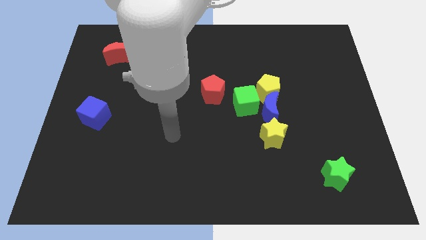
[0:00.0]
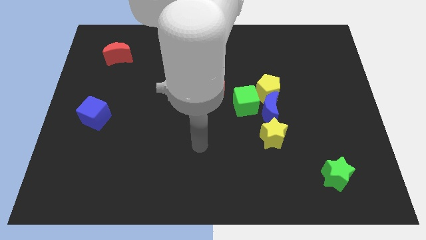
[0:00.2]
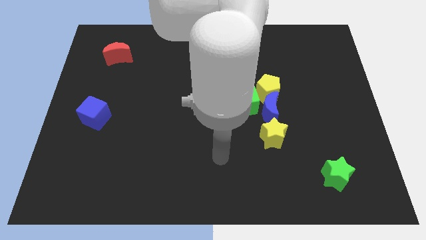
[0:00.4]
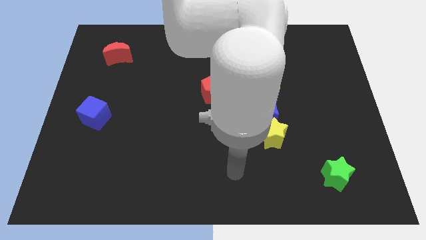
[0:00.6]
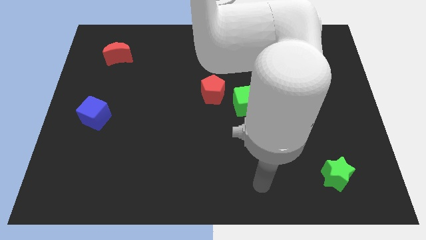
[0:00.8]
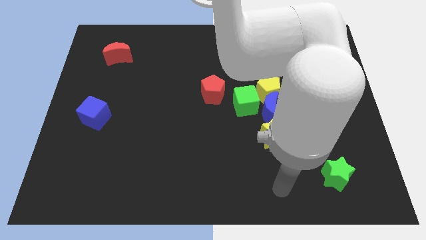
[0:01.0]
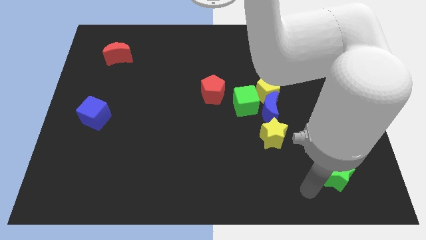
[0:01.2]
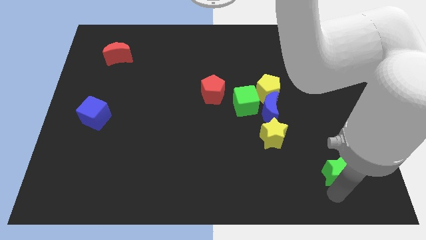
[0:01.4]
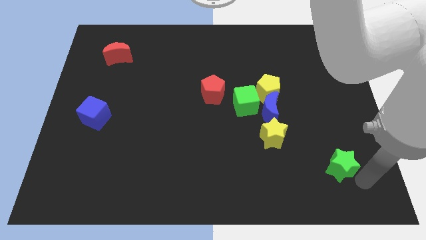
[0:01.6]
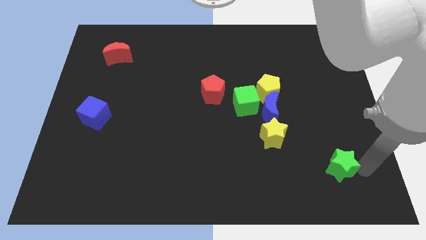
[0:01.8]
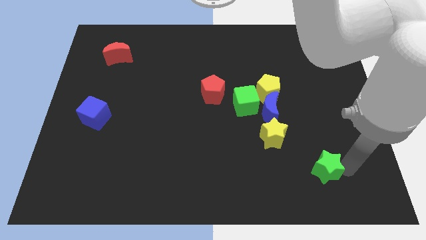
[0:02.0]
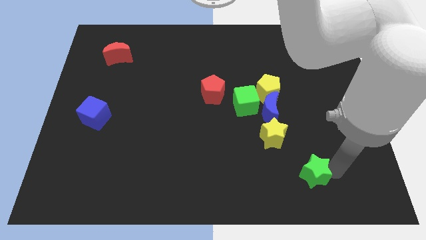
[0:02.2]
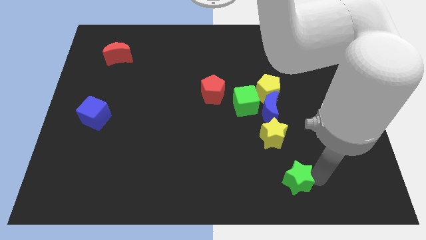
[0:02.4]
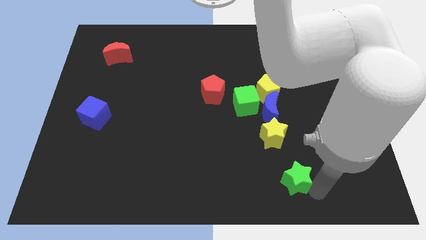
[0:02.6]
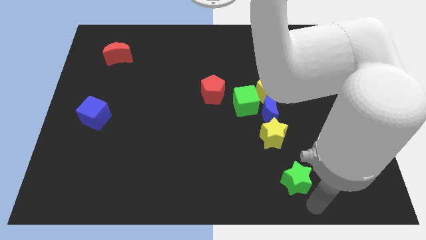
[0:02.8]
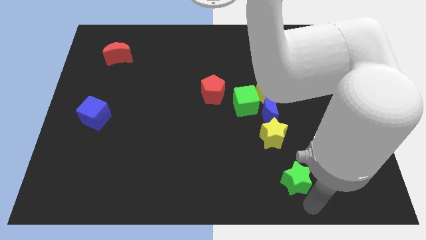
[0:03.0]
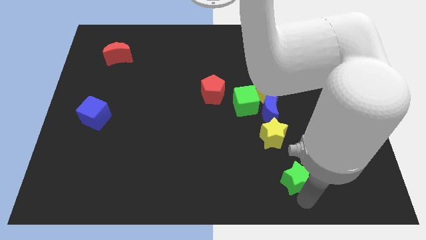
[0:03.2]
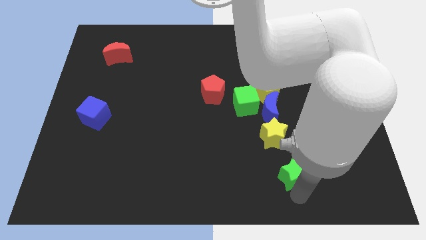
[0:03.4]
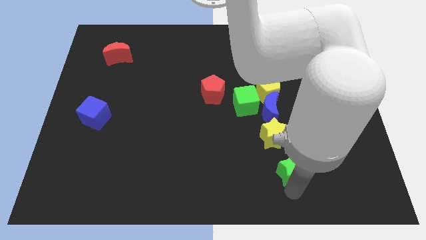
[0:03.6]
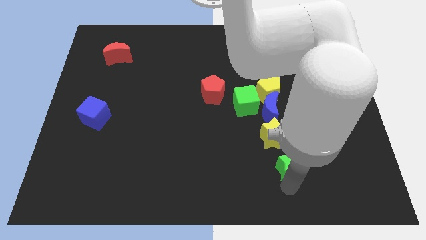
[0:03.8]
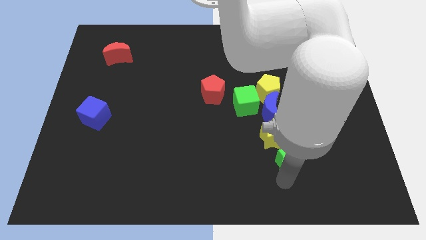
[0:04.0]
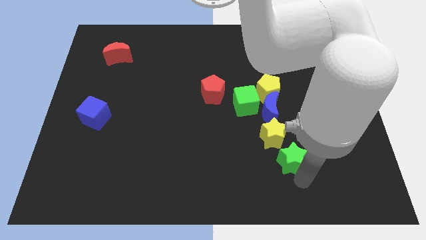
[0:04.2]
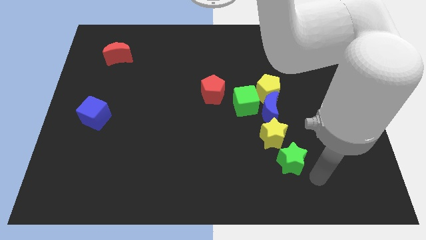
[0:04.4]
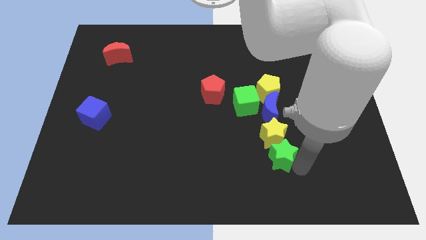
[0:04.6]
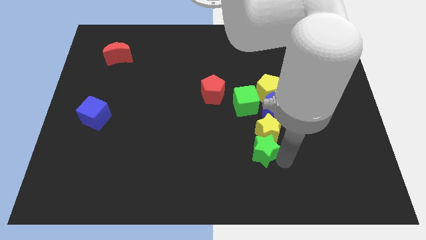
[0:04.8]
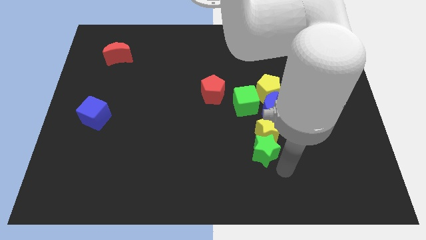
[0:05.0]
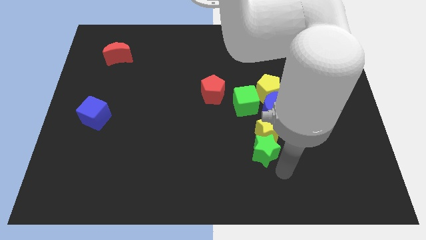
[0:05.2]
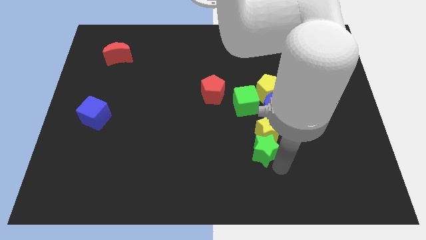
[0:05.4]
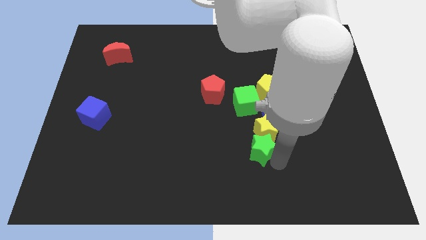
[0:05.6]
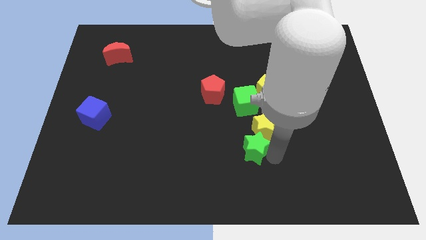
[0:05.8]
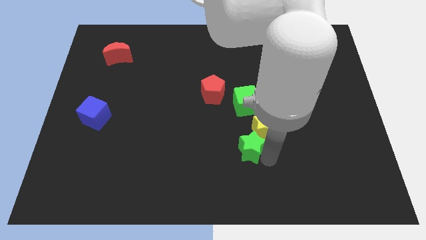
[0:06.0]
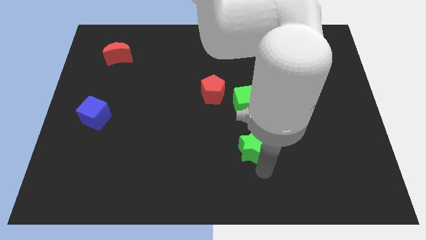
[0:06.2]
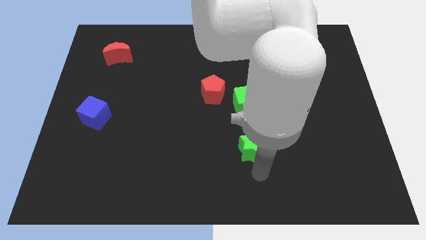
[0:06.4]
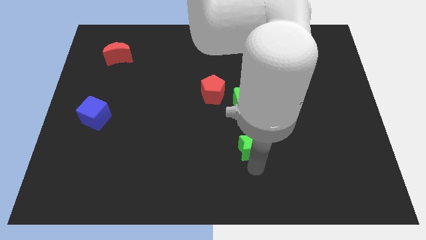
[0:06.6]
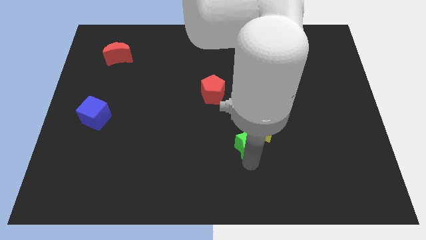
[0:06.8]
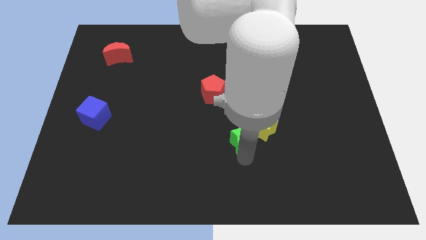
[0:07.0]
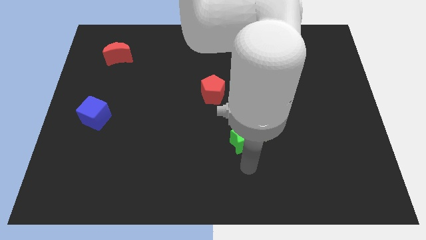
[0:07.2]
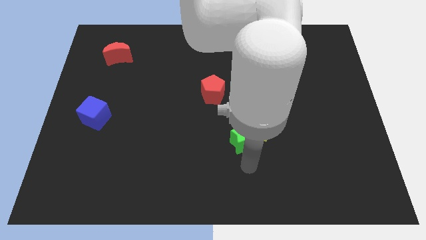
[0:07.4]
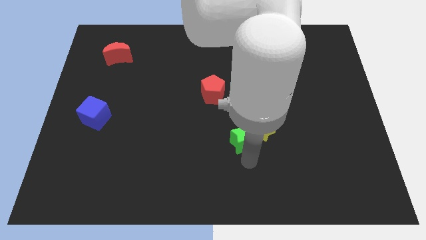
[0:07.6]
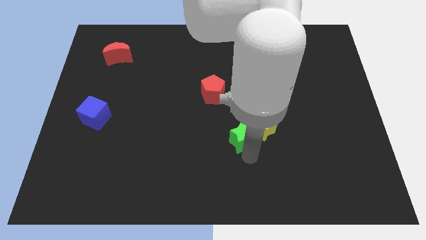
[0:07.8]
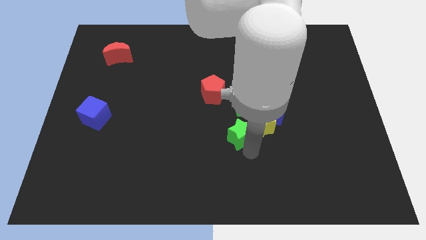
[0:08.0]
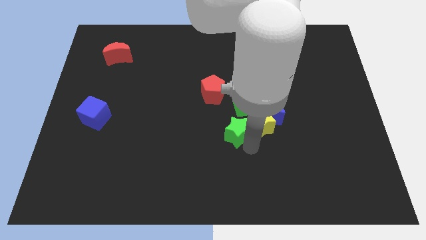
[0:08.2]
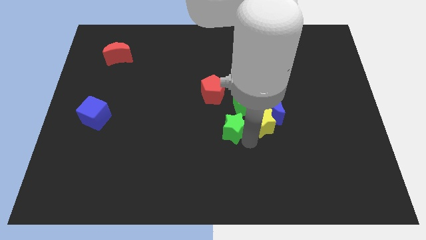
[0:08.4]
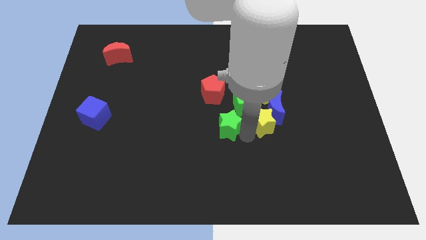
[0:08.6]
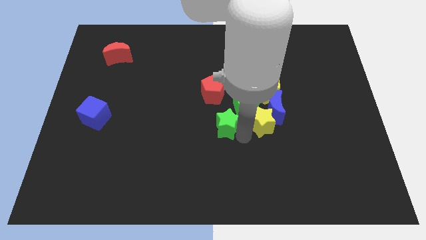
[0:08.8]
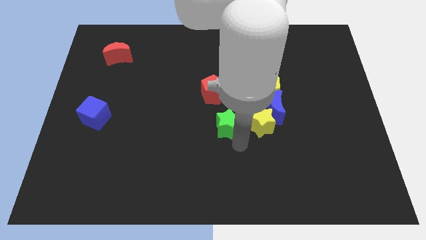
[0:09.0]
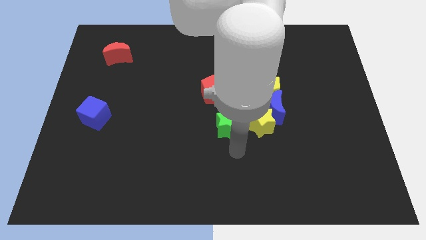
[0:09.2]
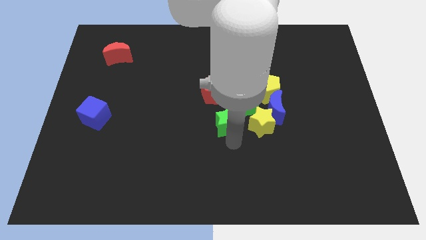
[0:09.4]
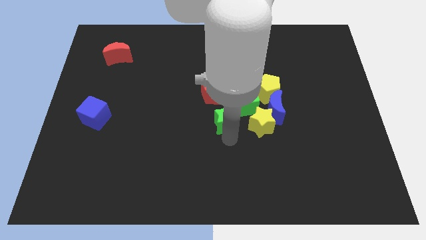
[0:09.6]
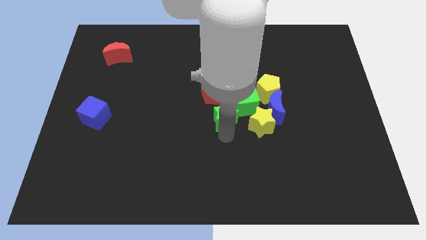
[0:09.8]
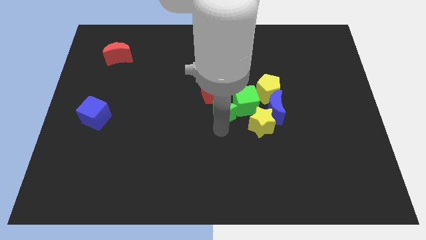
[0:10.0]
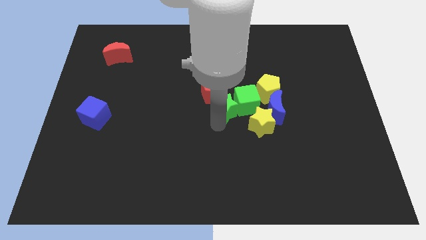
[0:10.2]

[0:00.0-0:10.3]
put the green star close to the red pentagon

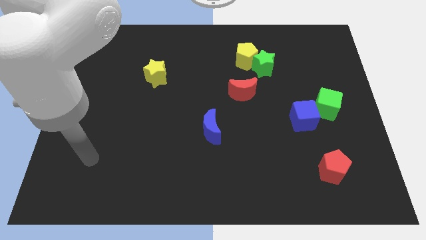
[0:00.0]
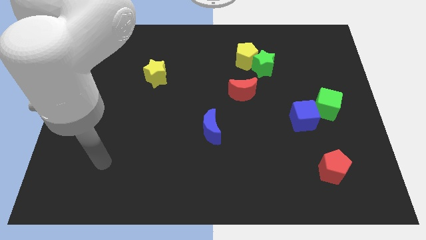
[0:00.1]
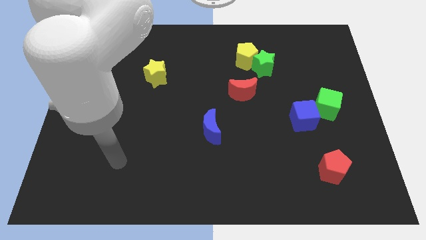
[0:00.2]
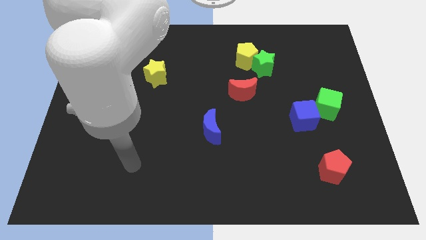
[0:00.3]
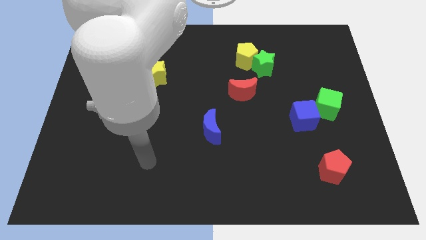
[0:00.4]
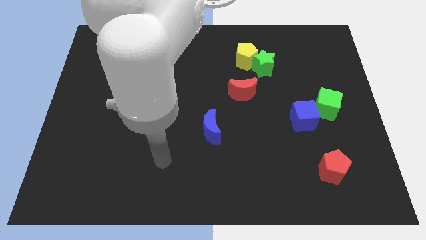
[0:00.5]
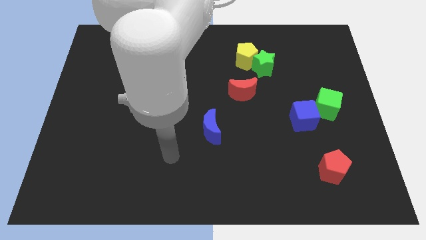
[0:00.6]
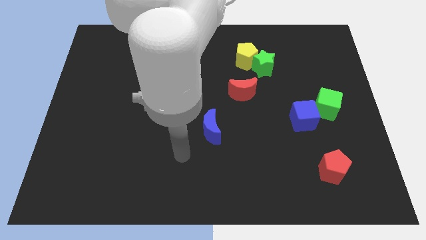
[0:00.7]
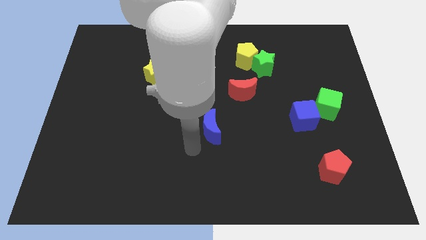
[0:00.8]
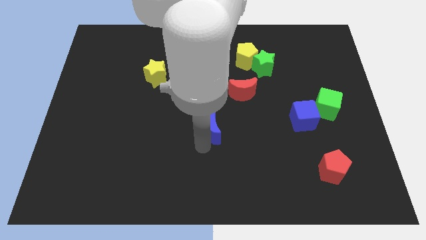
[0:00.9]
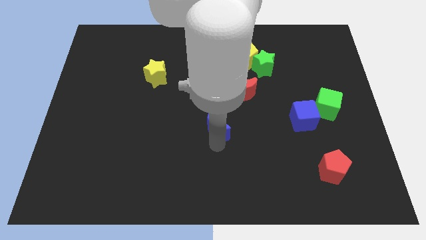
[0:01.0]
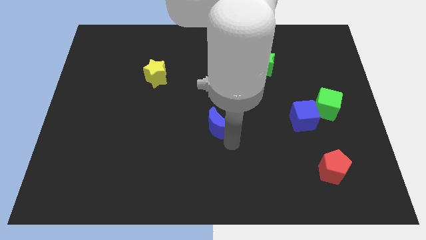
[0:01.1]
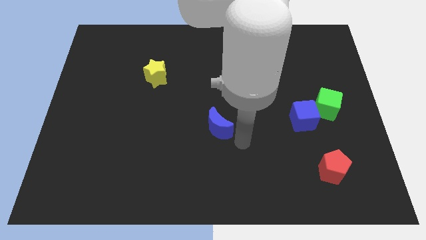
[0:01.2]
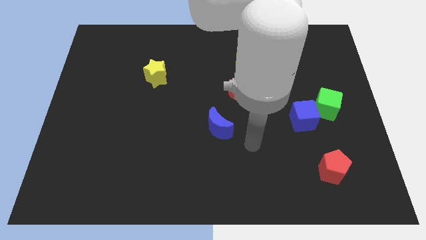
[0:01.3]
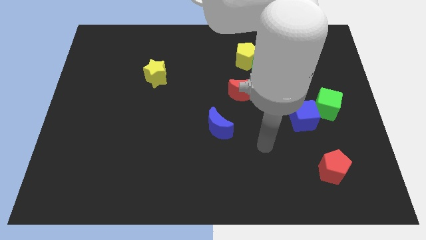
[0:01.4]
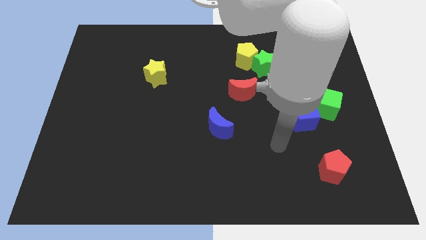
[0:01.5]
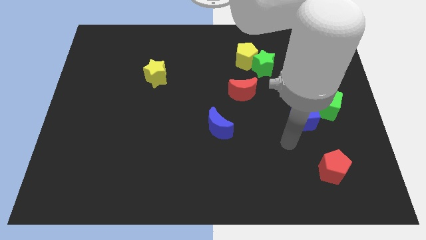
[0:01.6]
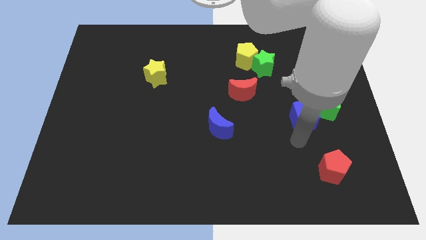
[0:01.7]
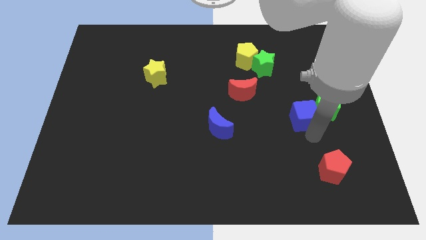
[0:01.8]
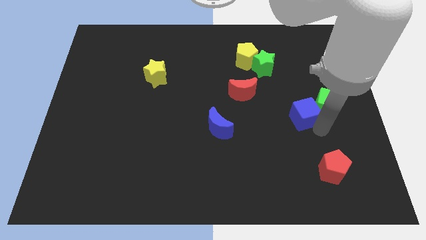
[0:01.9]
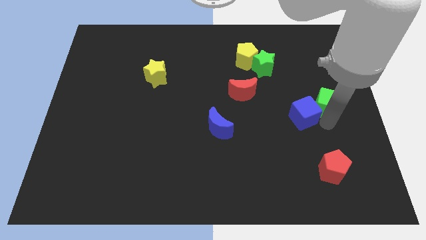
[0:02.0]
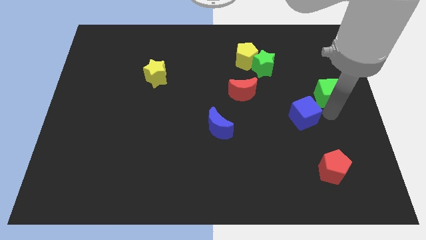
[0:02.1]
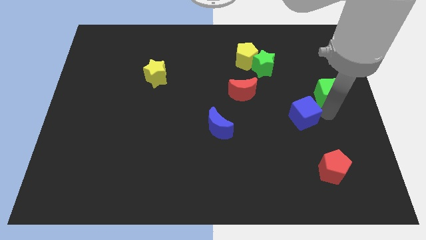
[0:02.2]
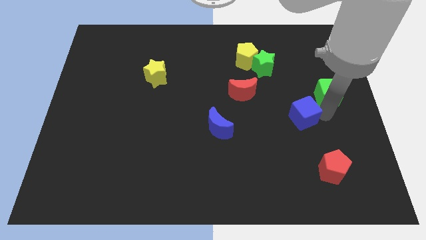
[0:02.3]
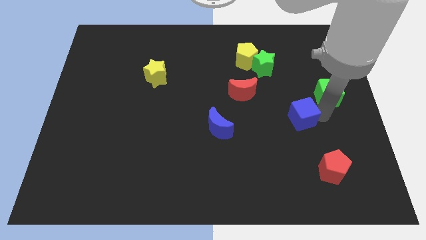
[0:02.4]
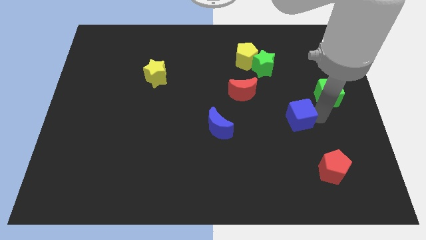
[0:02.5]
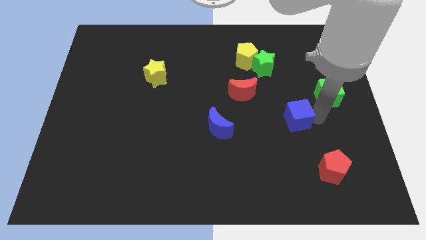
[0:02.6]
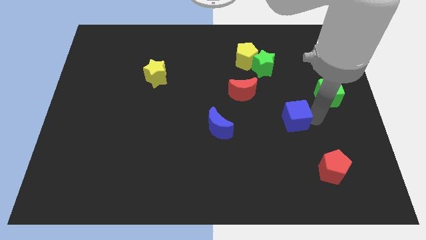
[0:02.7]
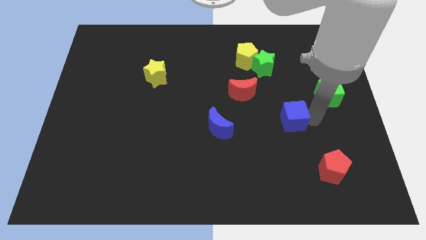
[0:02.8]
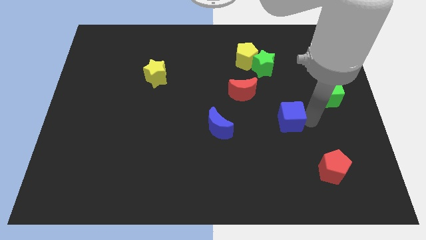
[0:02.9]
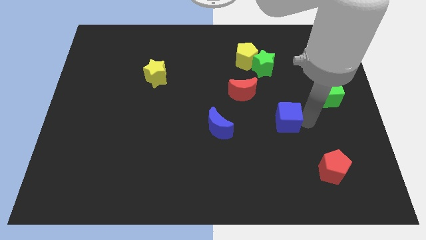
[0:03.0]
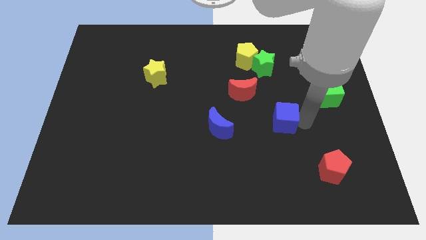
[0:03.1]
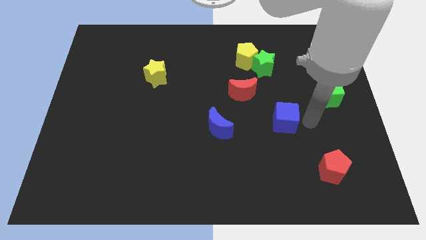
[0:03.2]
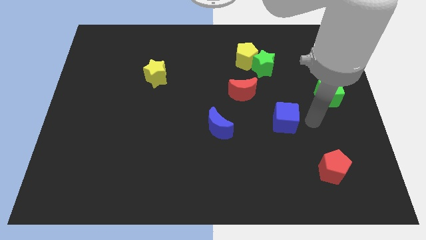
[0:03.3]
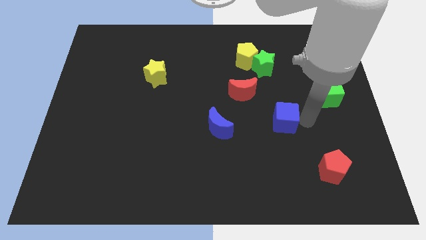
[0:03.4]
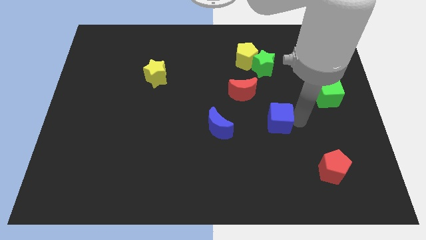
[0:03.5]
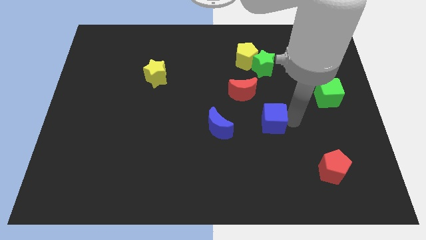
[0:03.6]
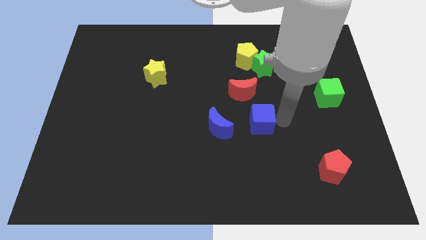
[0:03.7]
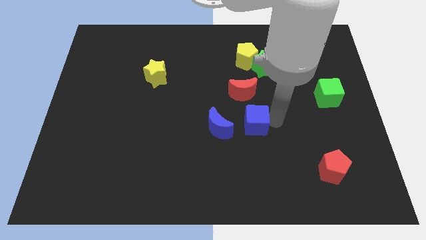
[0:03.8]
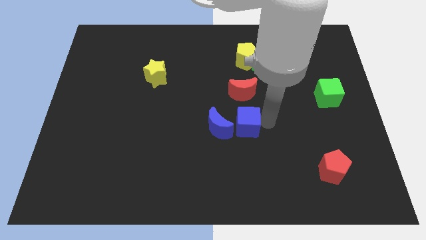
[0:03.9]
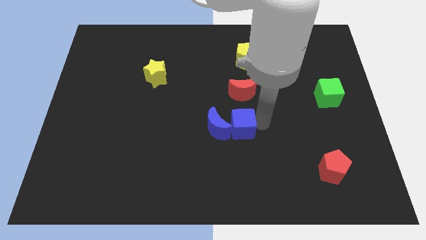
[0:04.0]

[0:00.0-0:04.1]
push the blue cube close to the blue moon
